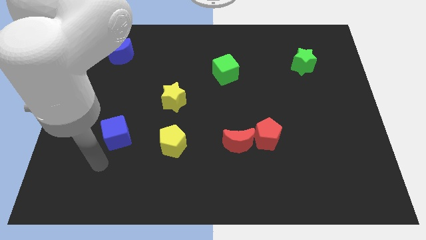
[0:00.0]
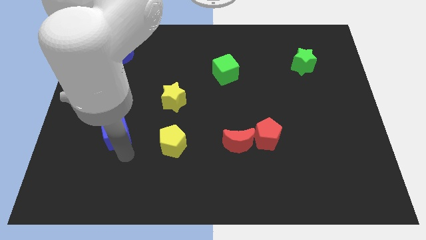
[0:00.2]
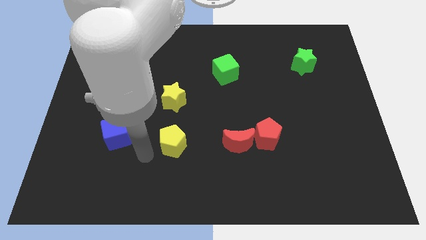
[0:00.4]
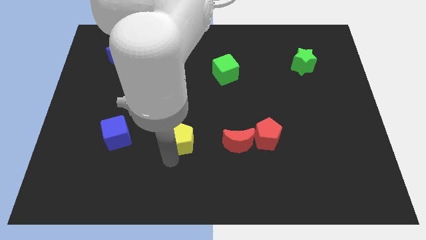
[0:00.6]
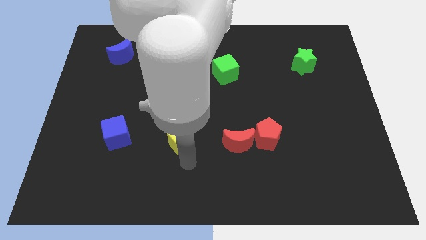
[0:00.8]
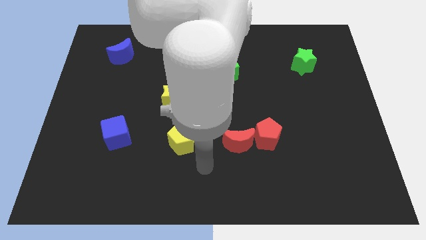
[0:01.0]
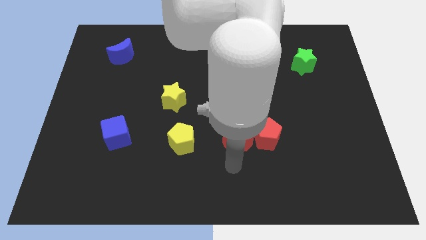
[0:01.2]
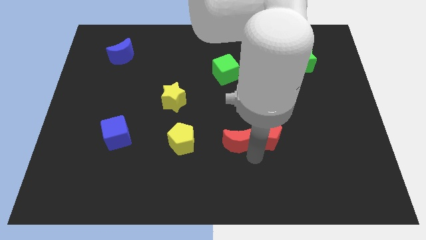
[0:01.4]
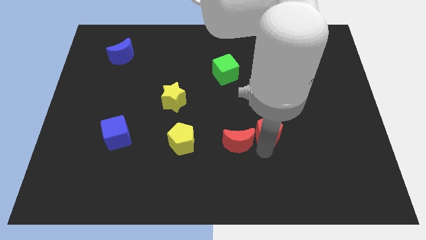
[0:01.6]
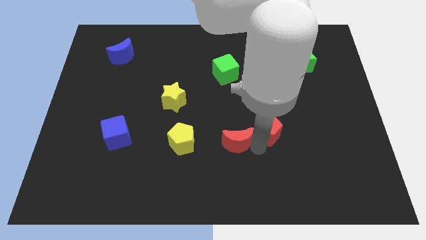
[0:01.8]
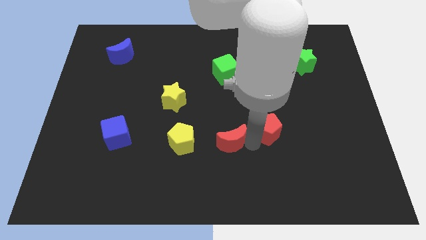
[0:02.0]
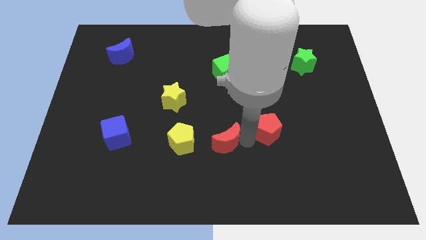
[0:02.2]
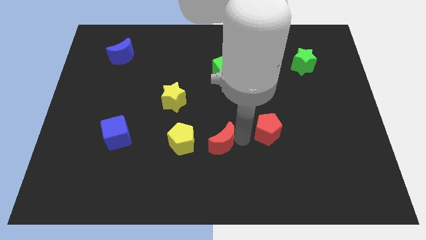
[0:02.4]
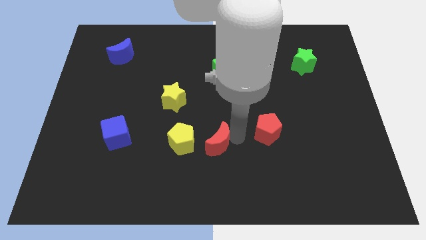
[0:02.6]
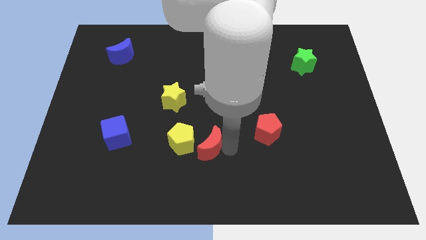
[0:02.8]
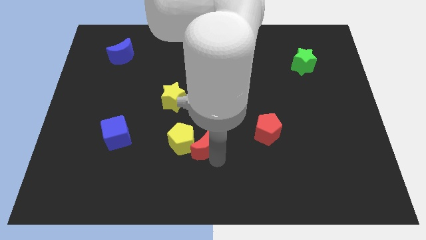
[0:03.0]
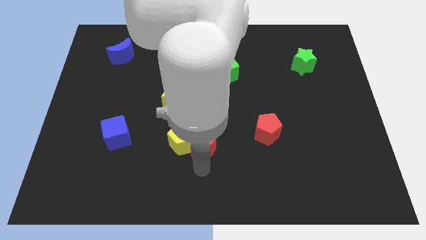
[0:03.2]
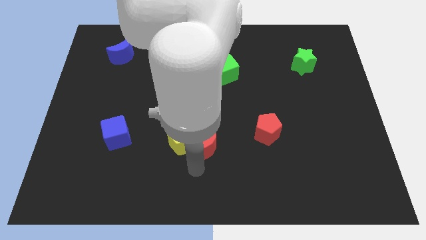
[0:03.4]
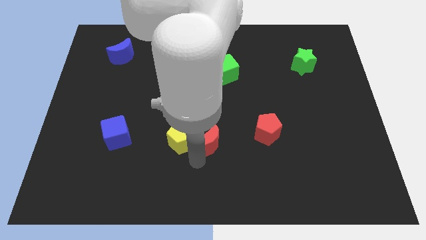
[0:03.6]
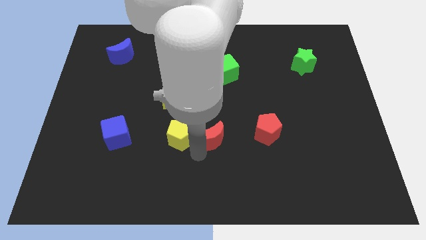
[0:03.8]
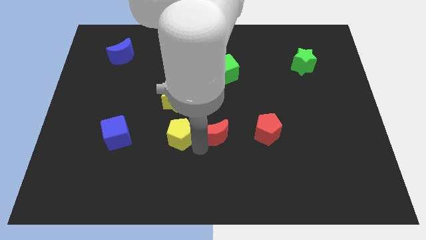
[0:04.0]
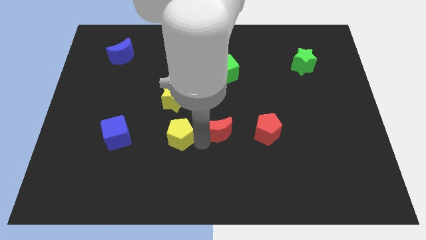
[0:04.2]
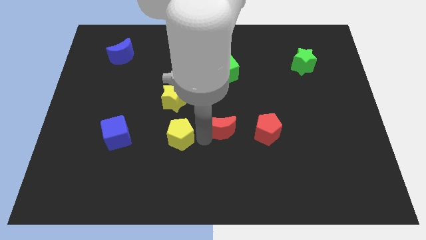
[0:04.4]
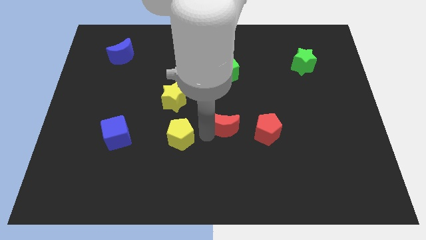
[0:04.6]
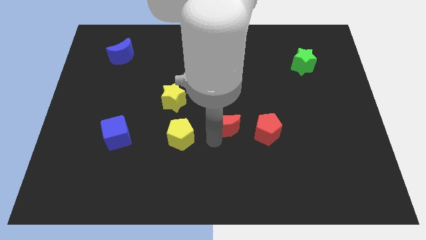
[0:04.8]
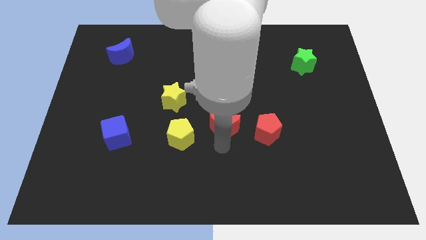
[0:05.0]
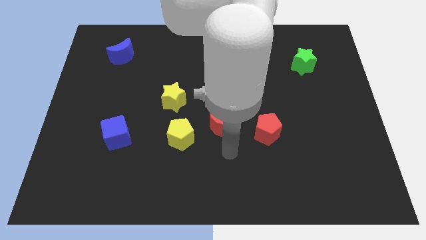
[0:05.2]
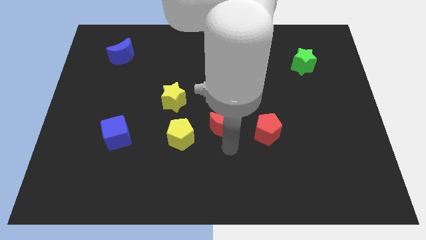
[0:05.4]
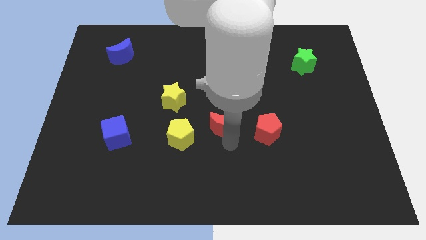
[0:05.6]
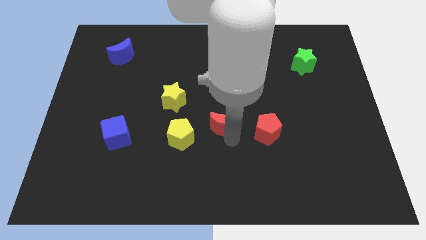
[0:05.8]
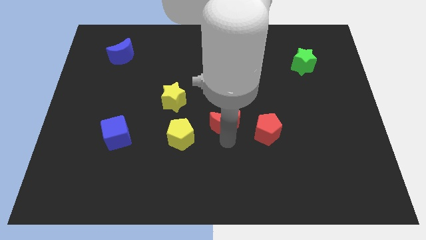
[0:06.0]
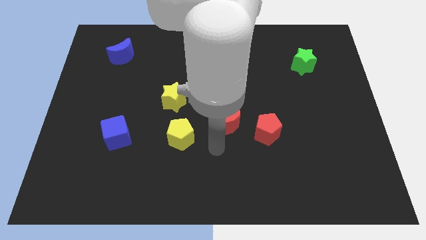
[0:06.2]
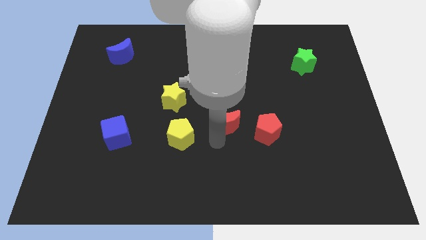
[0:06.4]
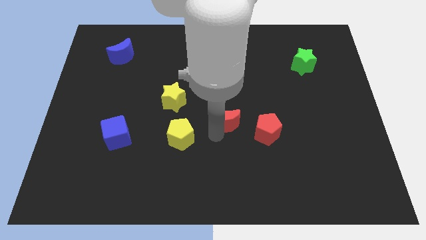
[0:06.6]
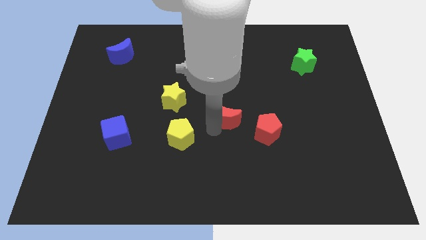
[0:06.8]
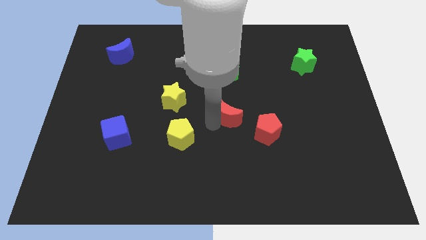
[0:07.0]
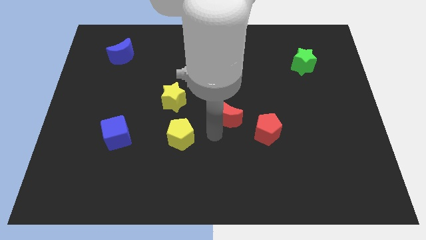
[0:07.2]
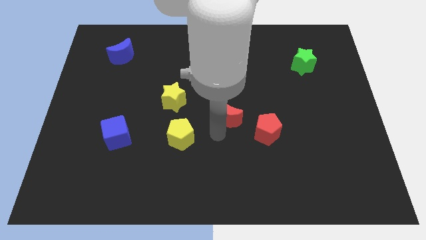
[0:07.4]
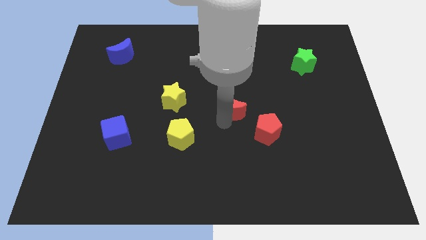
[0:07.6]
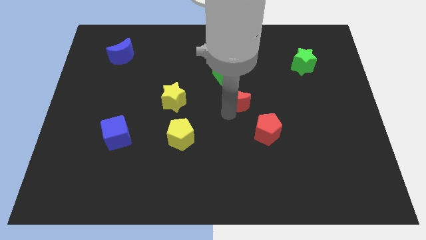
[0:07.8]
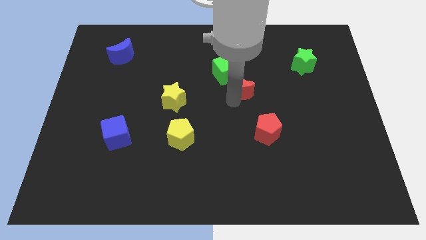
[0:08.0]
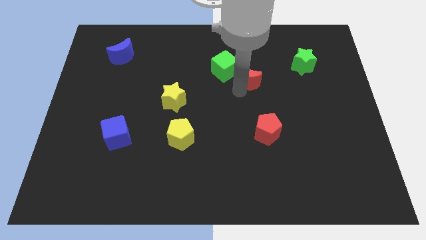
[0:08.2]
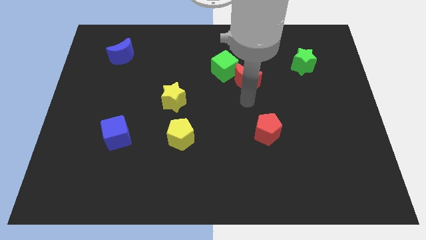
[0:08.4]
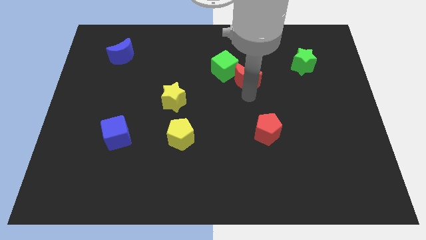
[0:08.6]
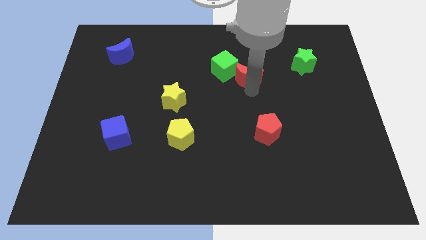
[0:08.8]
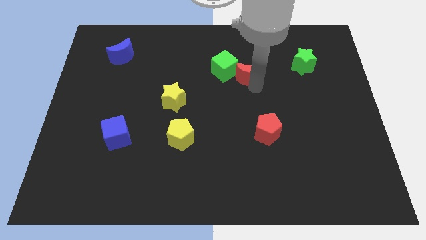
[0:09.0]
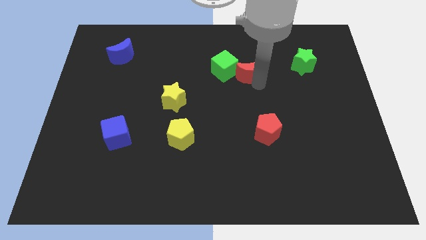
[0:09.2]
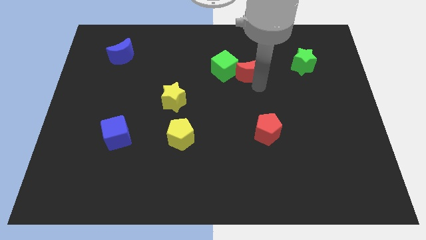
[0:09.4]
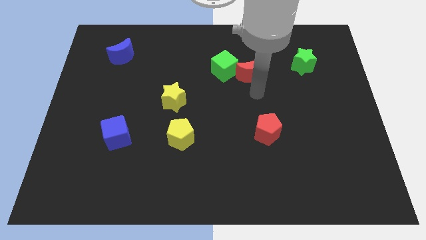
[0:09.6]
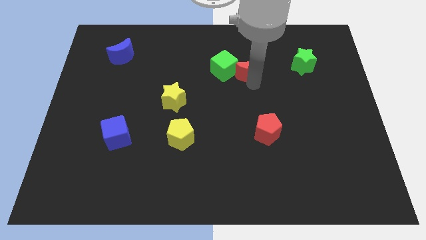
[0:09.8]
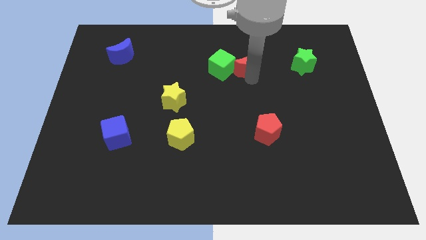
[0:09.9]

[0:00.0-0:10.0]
slide the red moon to the top right side of the green cube

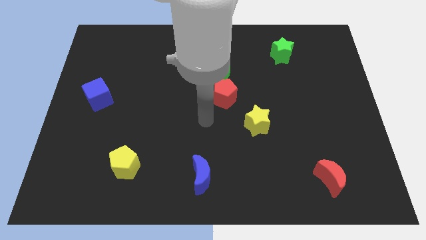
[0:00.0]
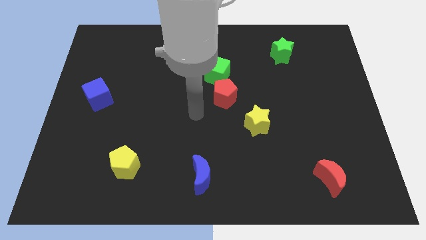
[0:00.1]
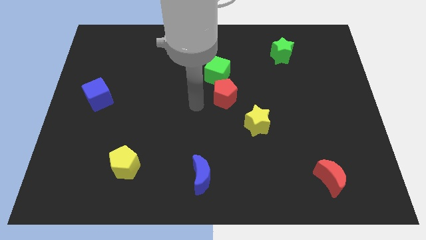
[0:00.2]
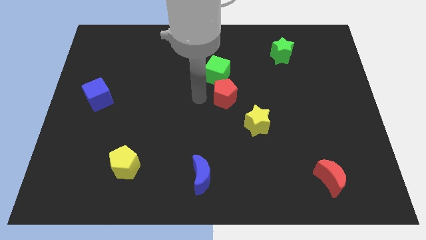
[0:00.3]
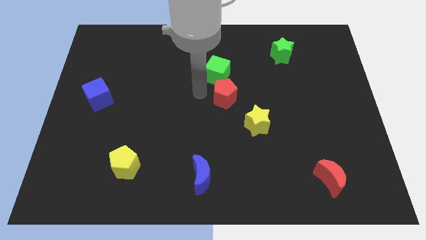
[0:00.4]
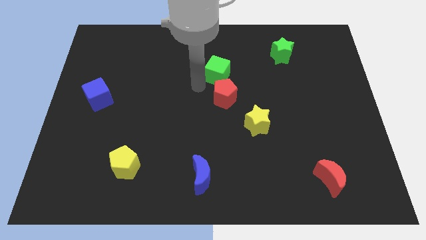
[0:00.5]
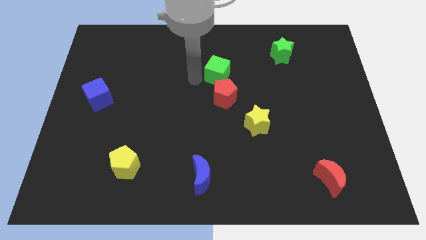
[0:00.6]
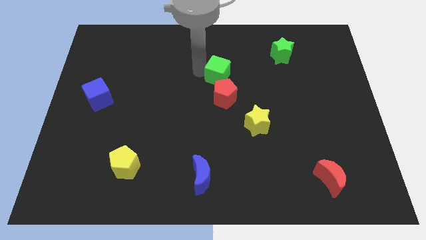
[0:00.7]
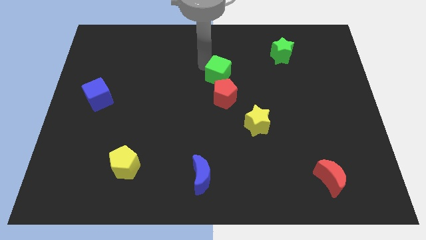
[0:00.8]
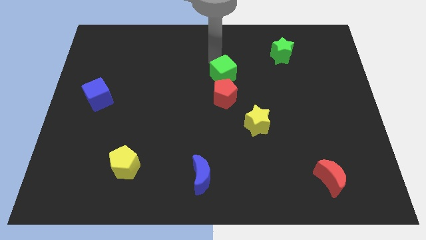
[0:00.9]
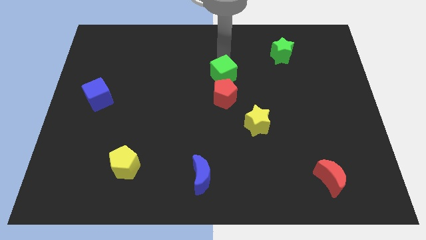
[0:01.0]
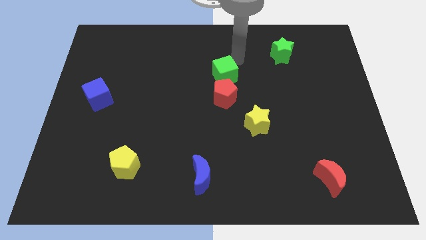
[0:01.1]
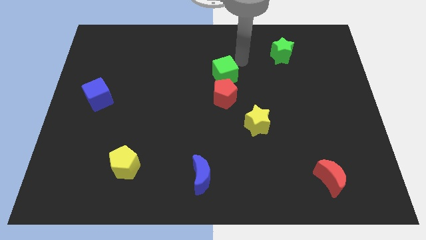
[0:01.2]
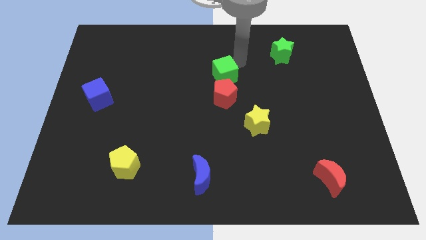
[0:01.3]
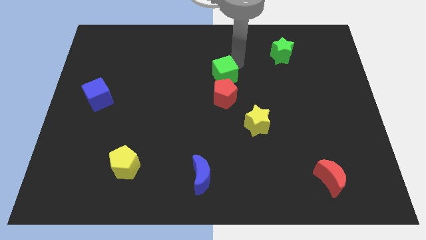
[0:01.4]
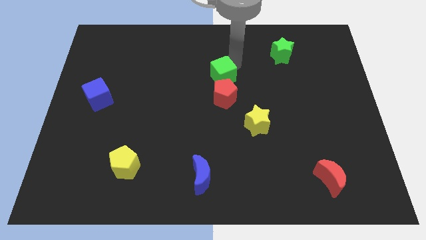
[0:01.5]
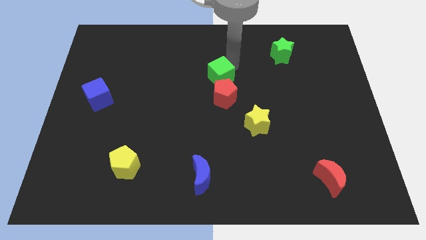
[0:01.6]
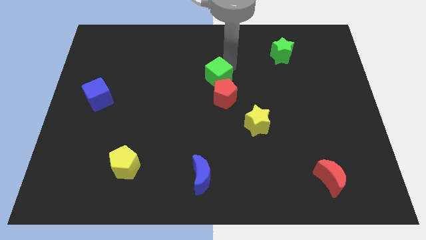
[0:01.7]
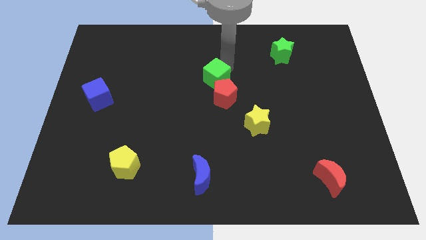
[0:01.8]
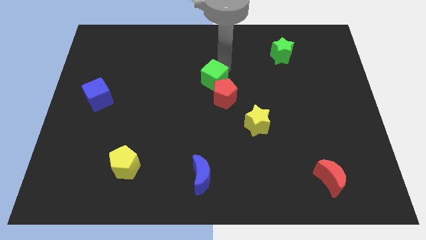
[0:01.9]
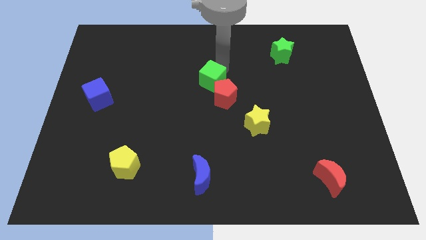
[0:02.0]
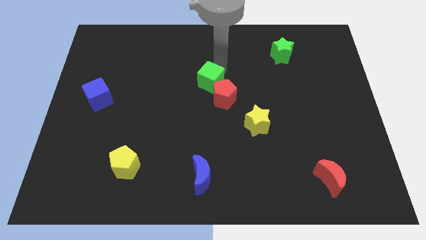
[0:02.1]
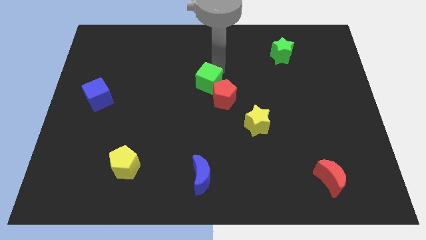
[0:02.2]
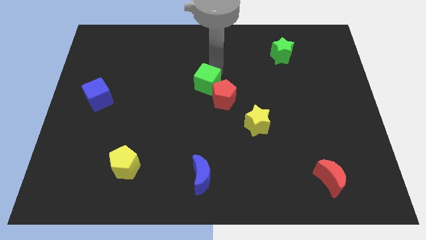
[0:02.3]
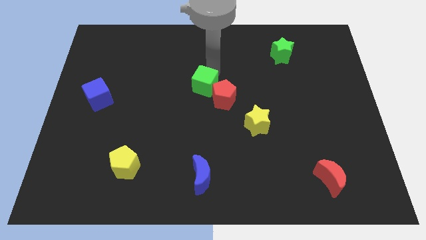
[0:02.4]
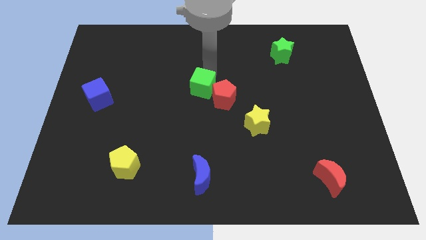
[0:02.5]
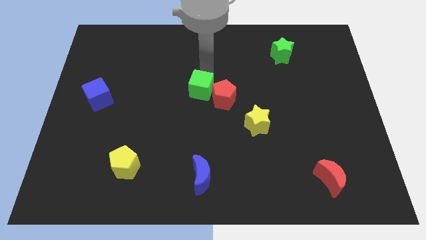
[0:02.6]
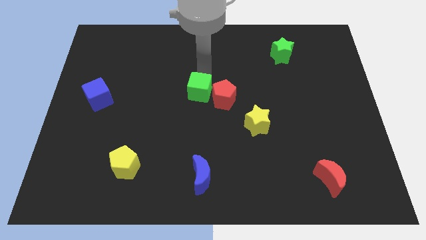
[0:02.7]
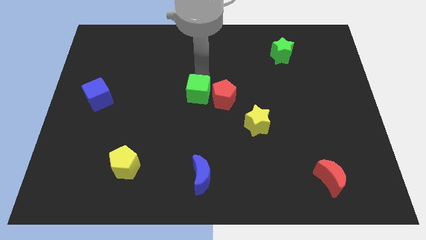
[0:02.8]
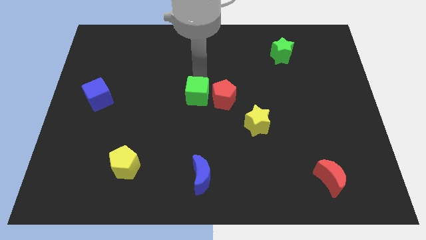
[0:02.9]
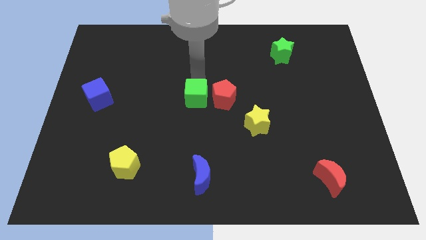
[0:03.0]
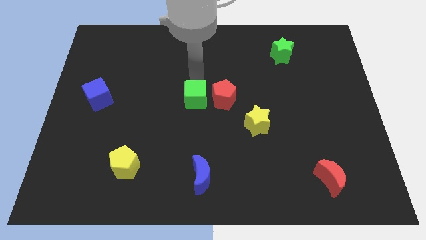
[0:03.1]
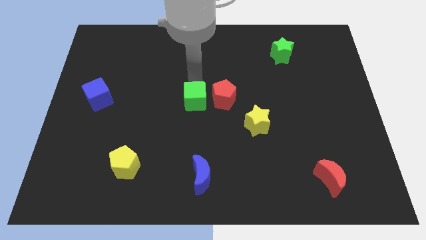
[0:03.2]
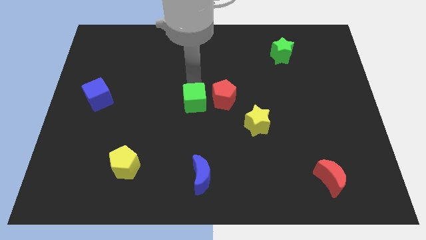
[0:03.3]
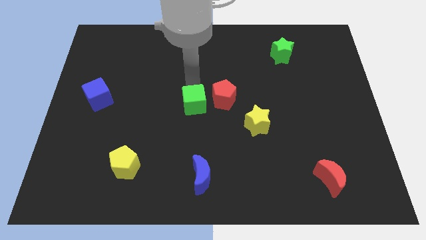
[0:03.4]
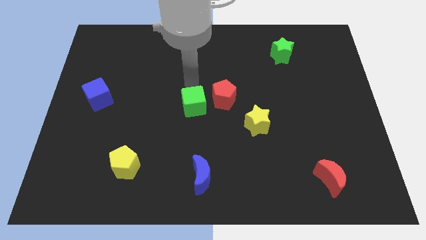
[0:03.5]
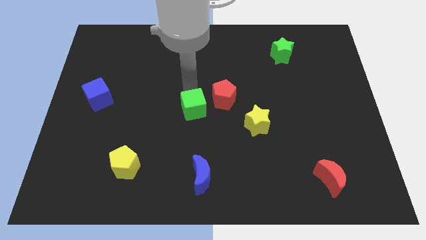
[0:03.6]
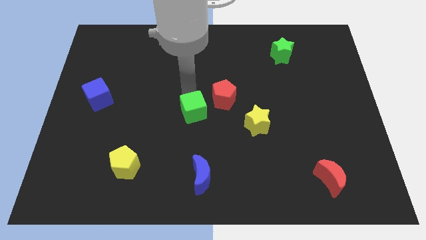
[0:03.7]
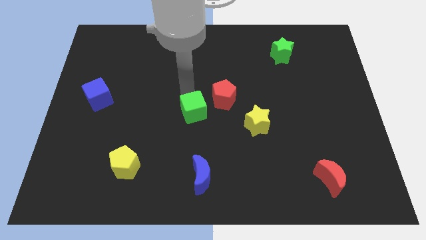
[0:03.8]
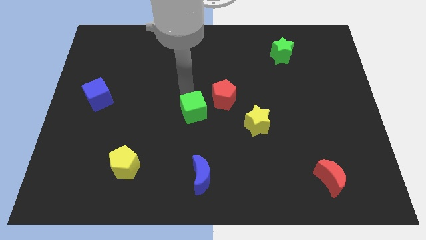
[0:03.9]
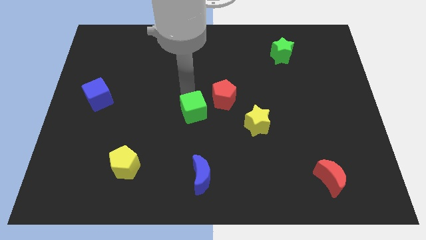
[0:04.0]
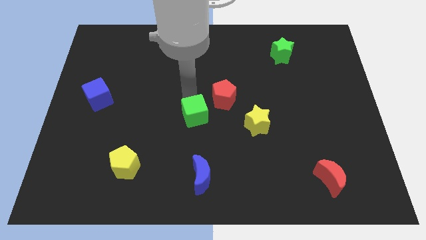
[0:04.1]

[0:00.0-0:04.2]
put the green cube to the top side of the blue moon
